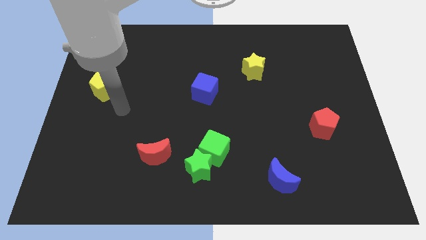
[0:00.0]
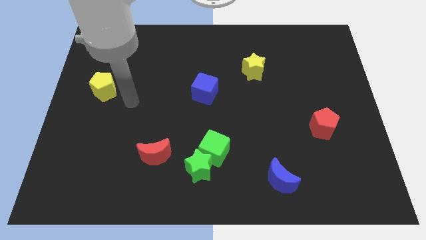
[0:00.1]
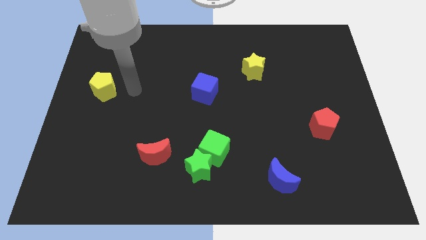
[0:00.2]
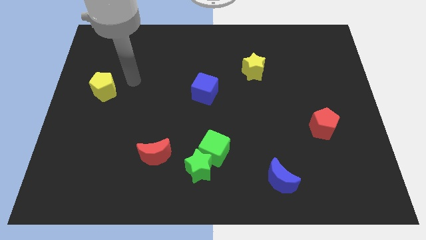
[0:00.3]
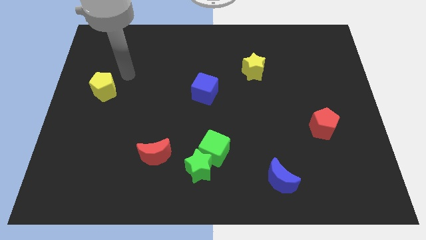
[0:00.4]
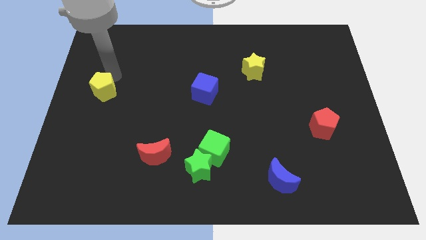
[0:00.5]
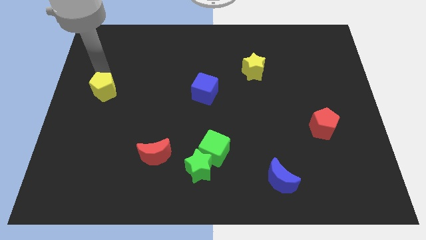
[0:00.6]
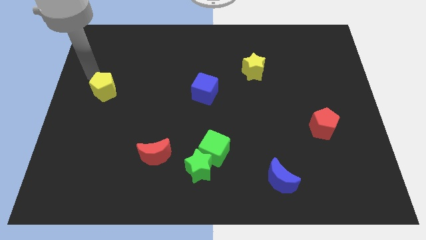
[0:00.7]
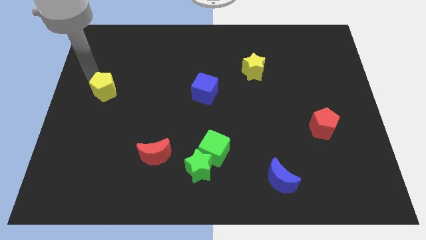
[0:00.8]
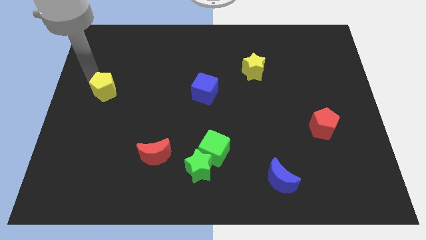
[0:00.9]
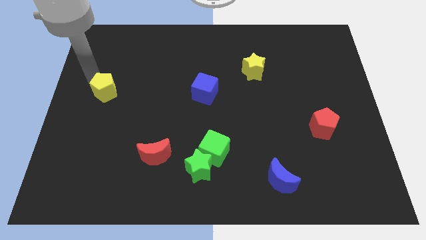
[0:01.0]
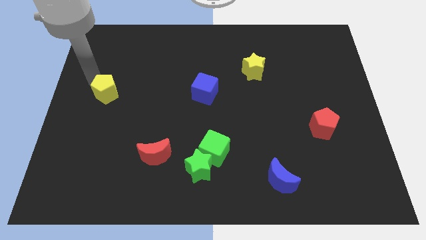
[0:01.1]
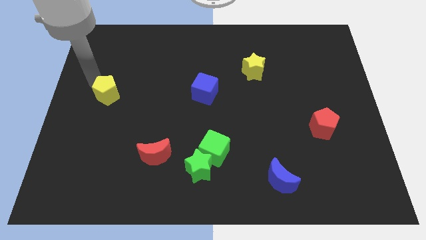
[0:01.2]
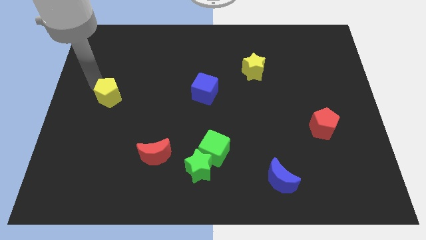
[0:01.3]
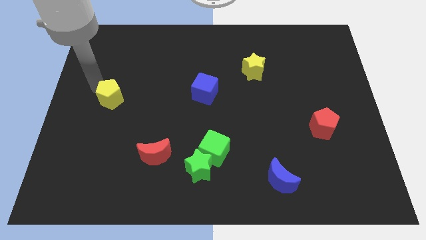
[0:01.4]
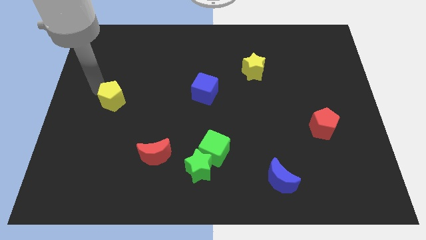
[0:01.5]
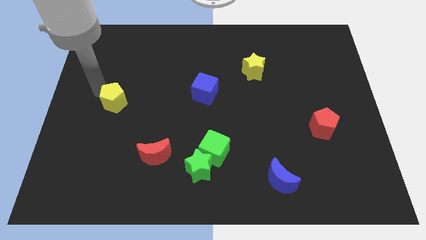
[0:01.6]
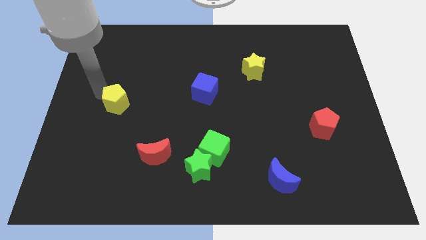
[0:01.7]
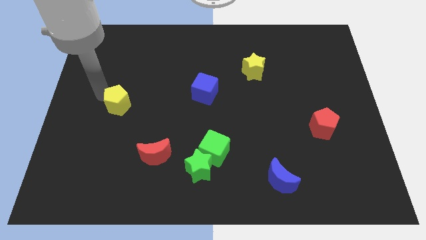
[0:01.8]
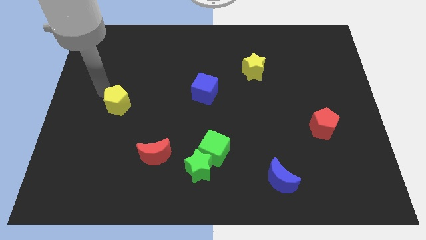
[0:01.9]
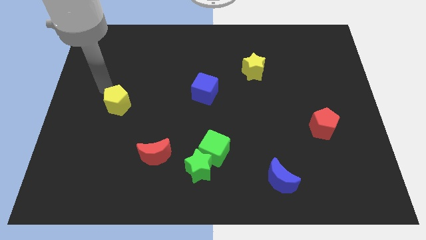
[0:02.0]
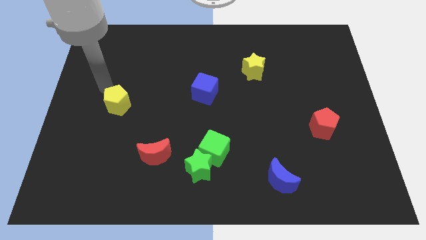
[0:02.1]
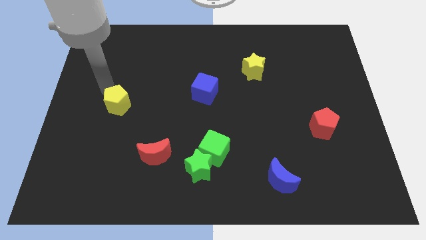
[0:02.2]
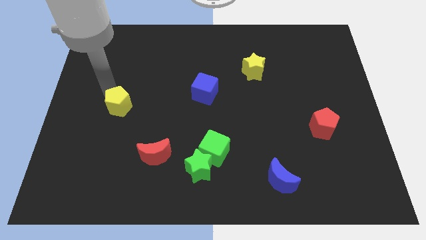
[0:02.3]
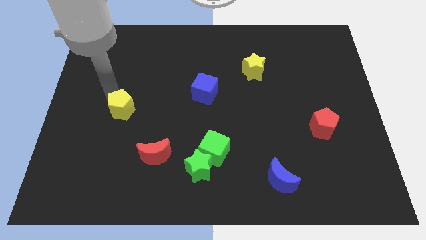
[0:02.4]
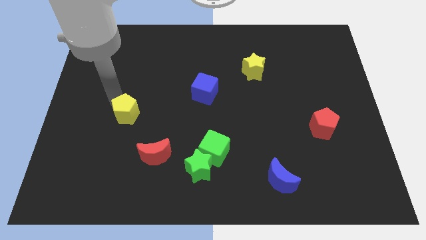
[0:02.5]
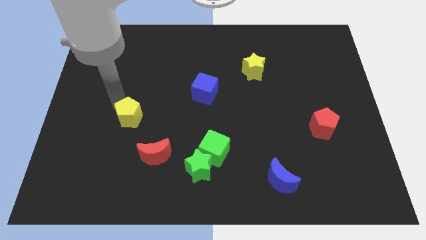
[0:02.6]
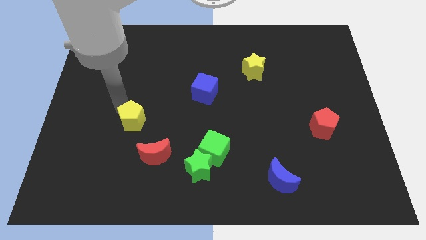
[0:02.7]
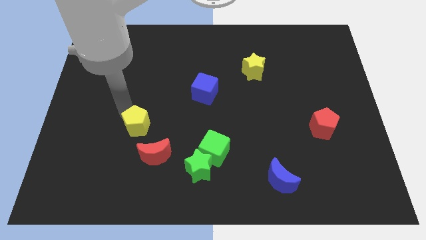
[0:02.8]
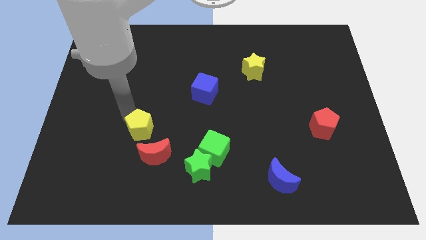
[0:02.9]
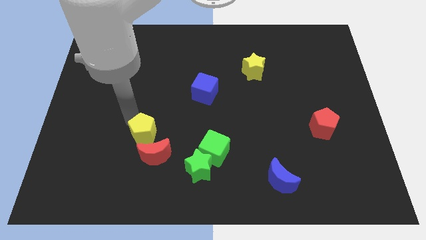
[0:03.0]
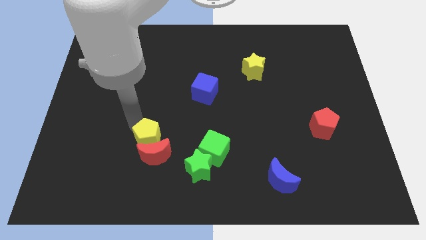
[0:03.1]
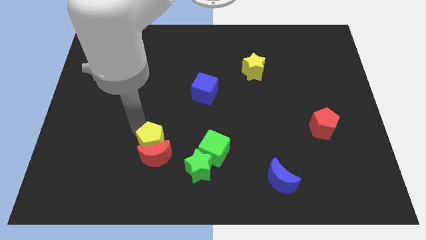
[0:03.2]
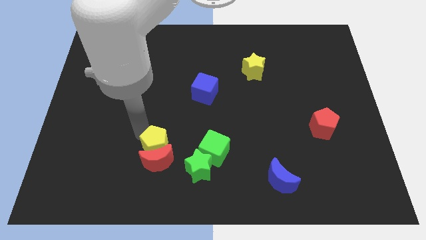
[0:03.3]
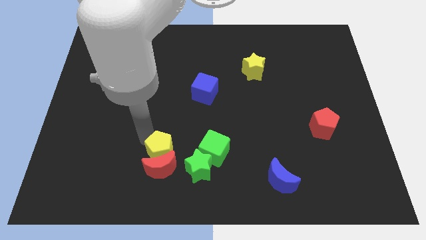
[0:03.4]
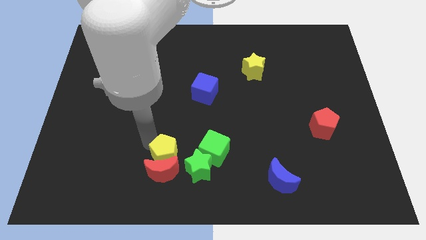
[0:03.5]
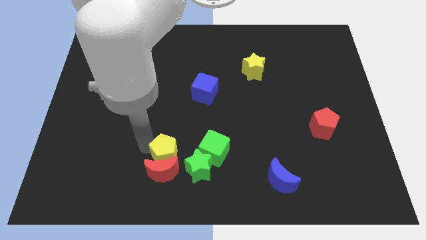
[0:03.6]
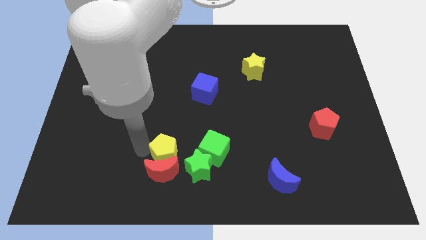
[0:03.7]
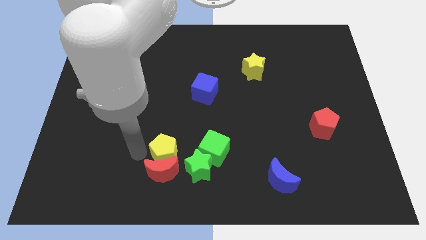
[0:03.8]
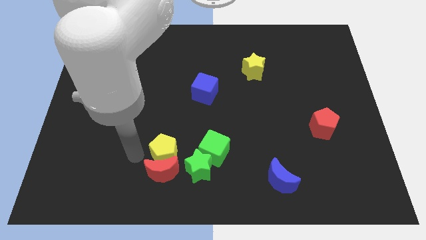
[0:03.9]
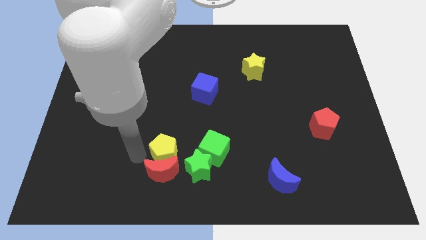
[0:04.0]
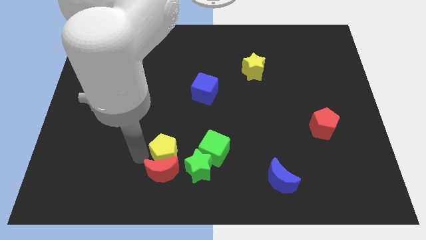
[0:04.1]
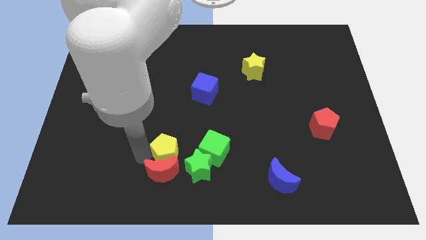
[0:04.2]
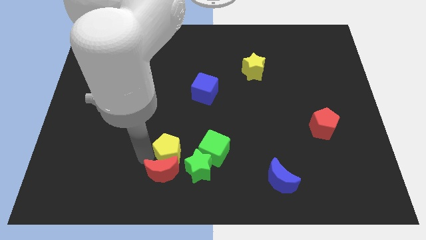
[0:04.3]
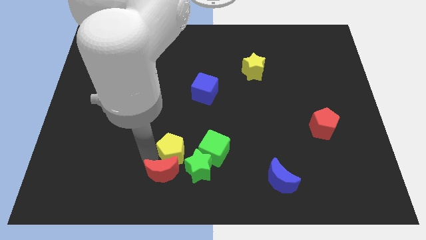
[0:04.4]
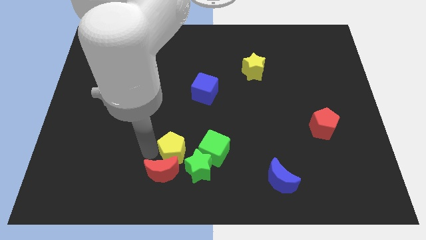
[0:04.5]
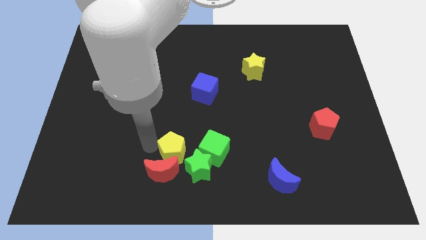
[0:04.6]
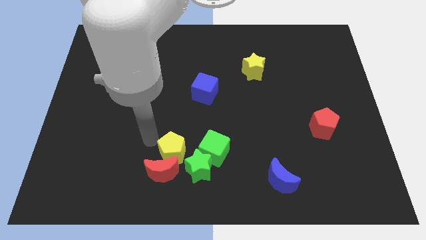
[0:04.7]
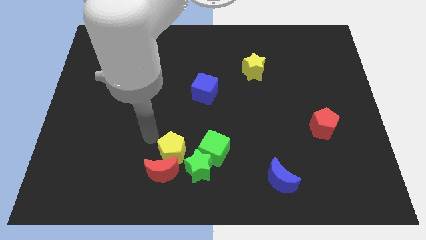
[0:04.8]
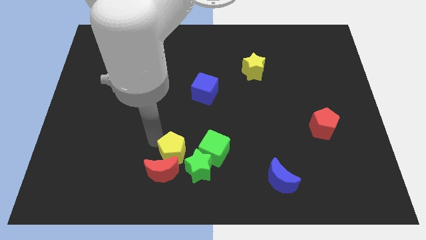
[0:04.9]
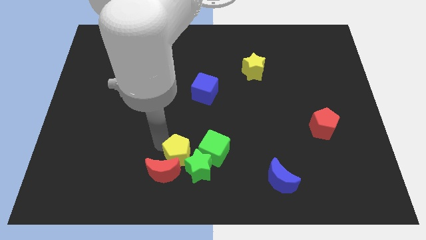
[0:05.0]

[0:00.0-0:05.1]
push the yellow pentagon towards the green star
